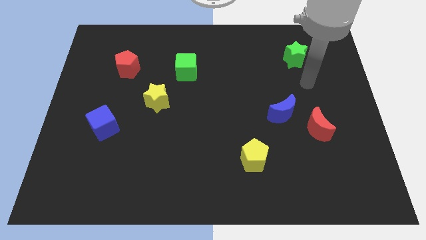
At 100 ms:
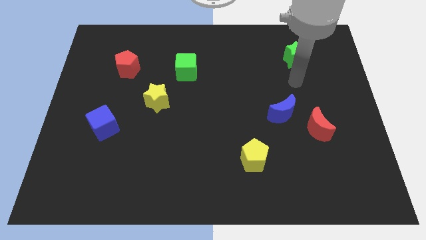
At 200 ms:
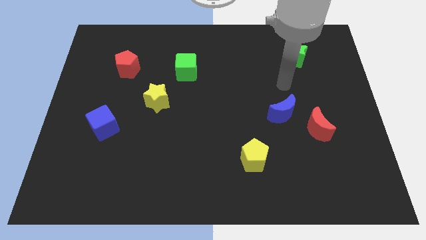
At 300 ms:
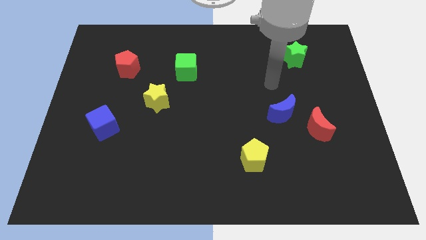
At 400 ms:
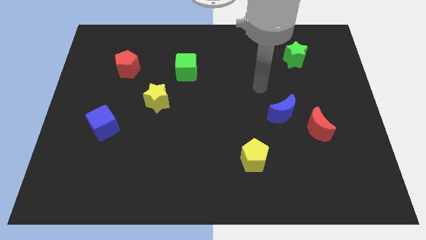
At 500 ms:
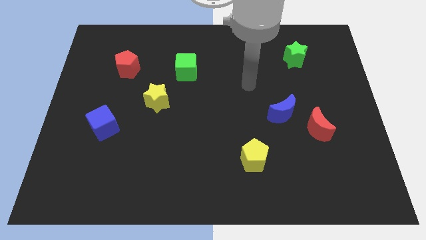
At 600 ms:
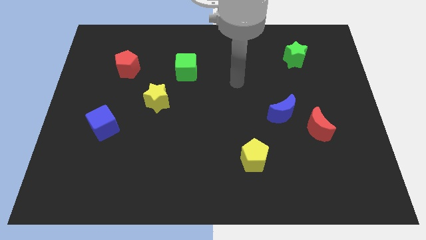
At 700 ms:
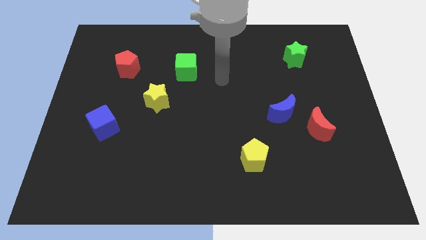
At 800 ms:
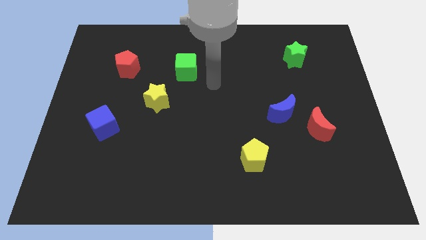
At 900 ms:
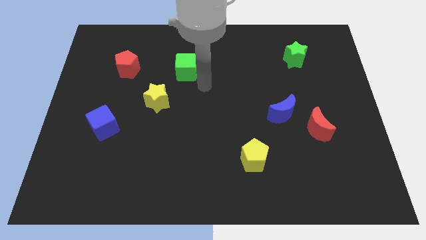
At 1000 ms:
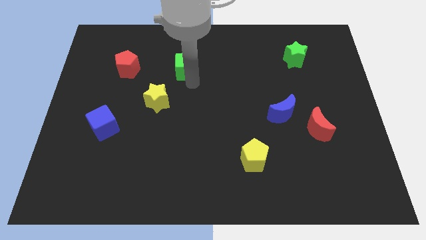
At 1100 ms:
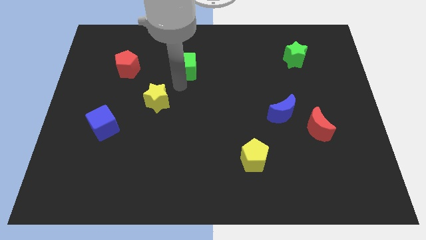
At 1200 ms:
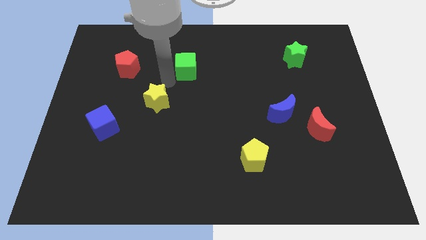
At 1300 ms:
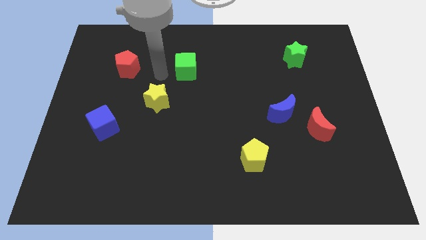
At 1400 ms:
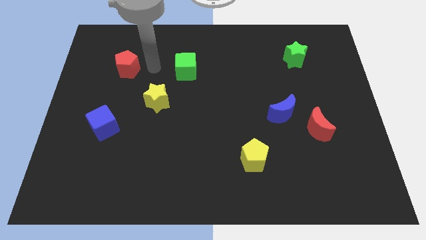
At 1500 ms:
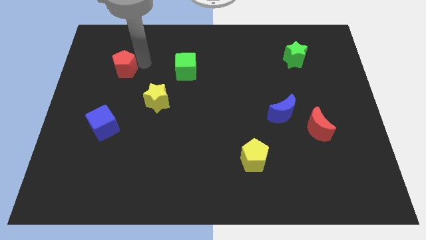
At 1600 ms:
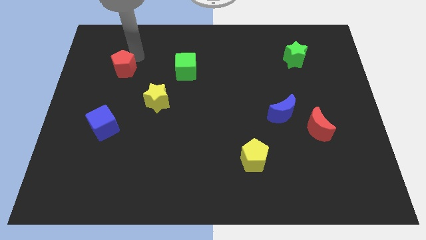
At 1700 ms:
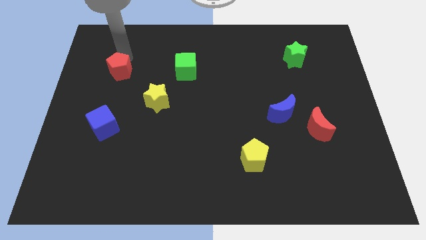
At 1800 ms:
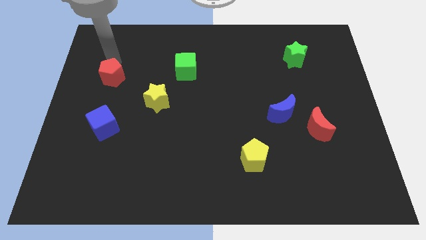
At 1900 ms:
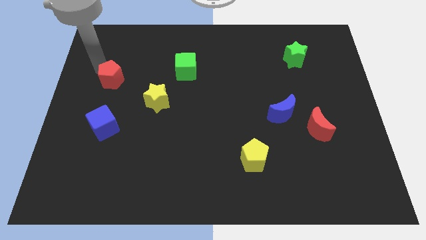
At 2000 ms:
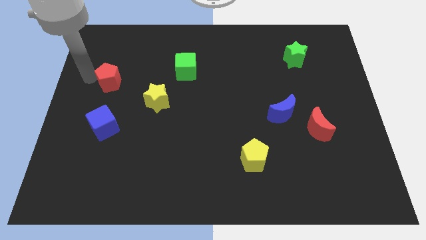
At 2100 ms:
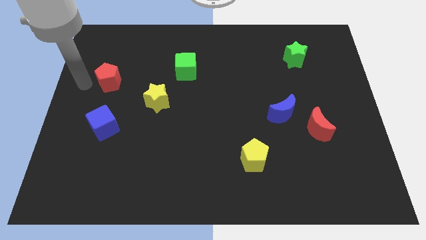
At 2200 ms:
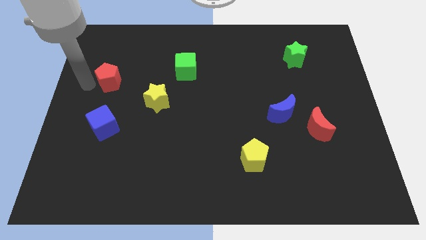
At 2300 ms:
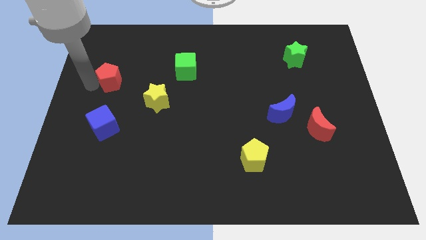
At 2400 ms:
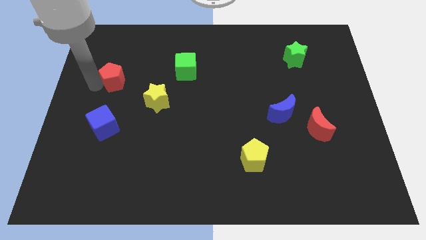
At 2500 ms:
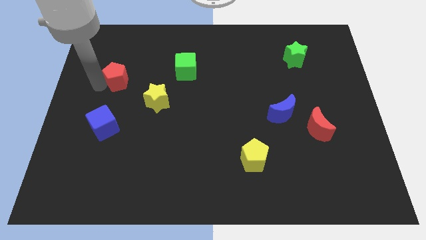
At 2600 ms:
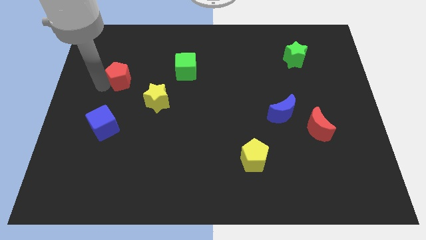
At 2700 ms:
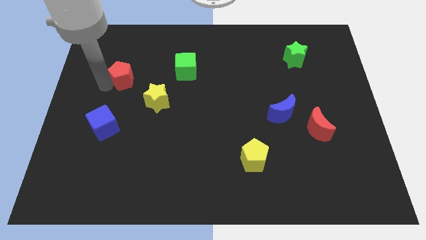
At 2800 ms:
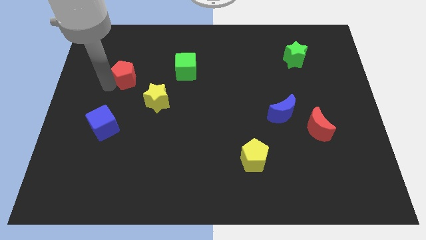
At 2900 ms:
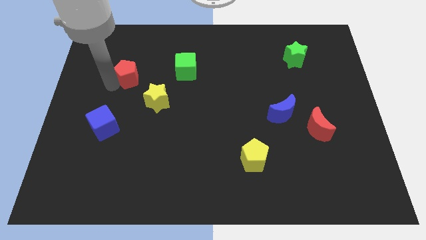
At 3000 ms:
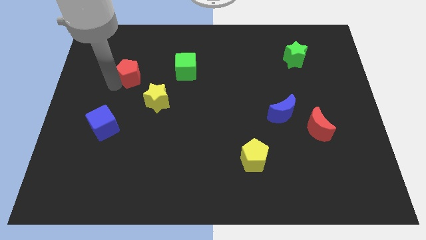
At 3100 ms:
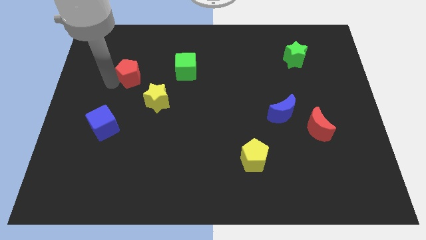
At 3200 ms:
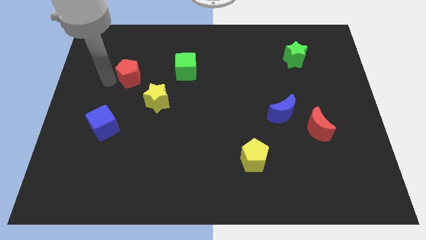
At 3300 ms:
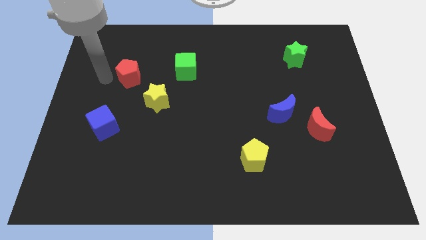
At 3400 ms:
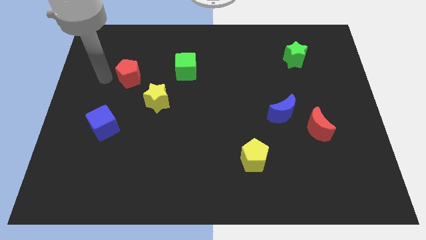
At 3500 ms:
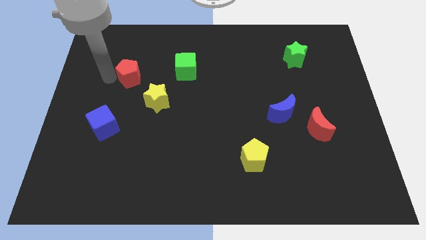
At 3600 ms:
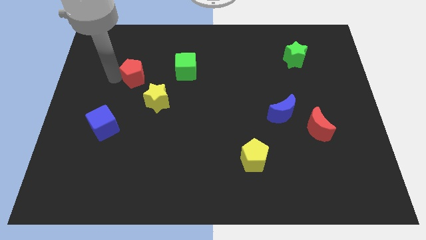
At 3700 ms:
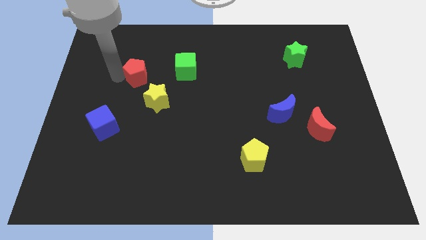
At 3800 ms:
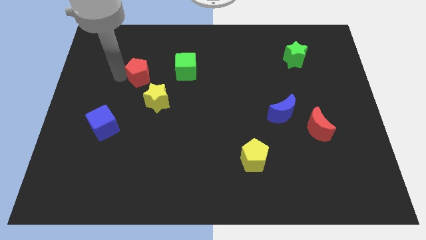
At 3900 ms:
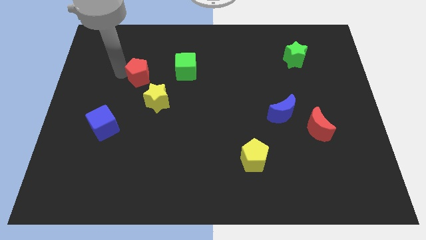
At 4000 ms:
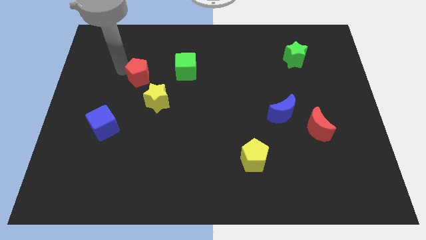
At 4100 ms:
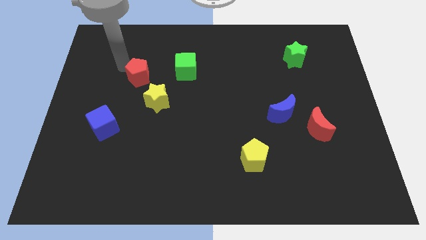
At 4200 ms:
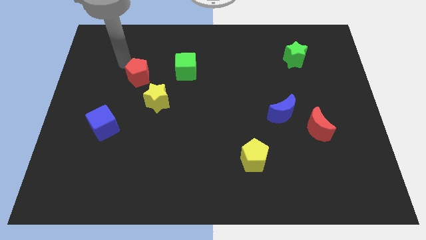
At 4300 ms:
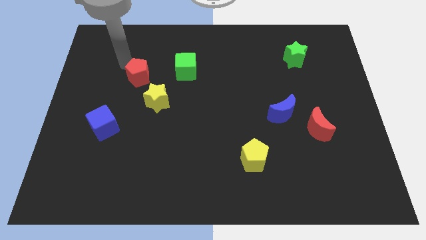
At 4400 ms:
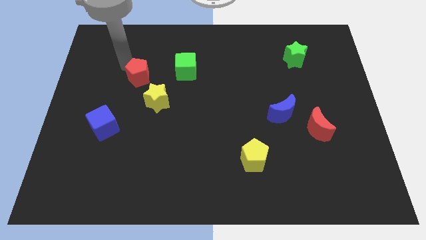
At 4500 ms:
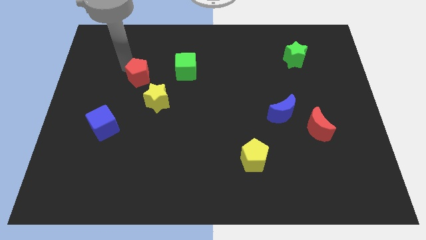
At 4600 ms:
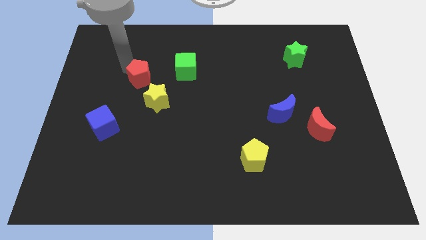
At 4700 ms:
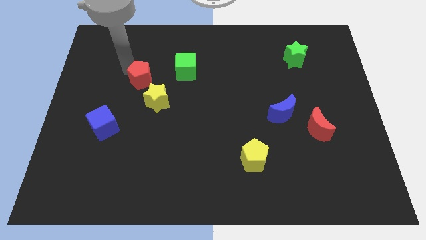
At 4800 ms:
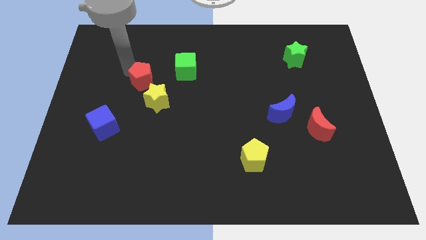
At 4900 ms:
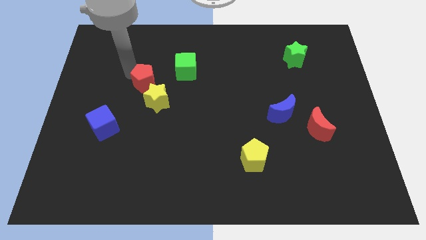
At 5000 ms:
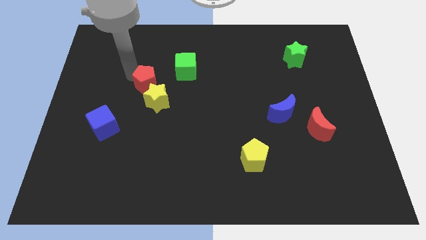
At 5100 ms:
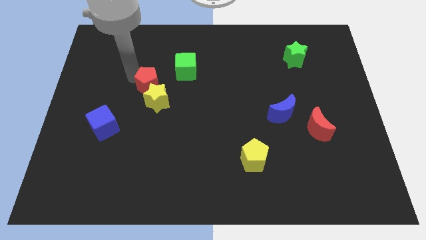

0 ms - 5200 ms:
put the red pentagon towards the yellow star

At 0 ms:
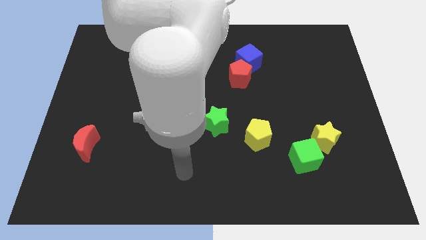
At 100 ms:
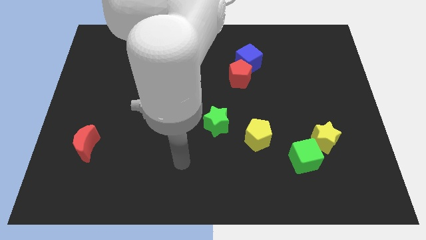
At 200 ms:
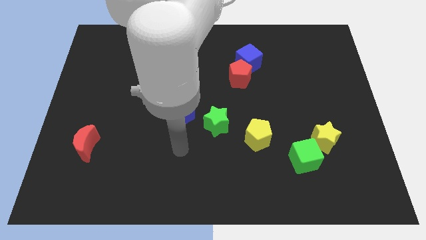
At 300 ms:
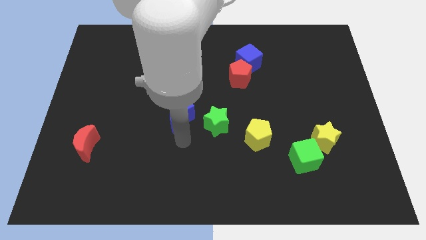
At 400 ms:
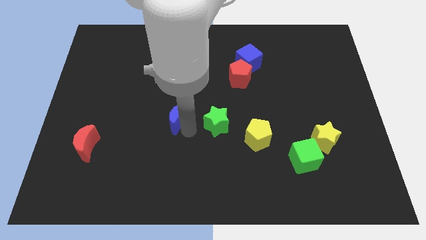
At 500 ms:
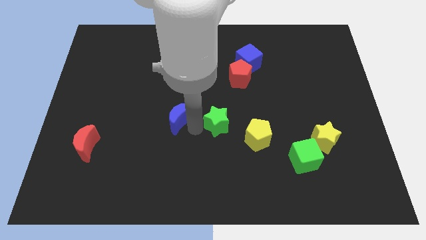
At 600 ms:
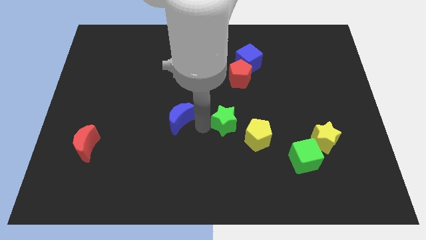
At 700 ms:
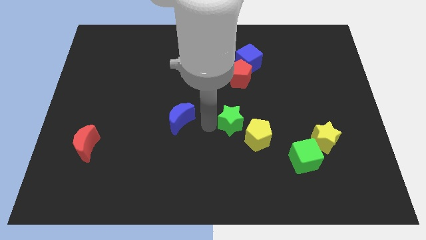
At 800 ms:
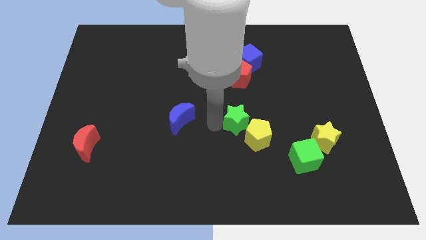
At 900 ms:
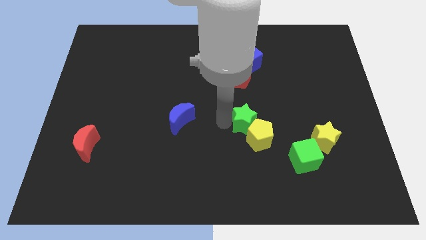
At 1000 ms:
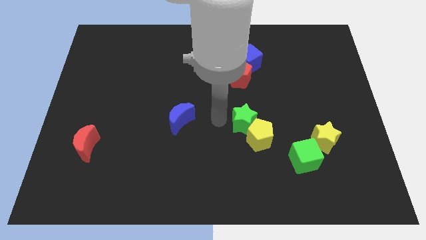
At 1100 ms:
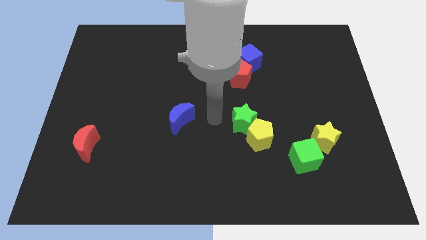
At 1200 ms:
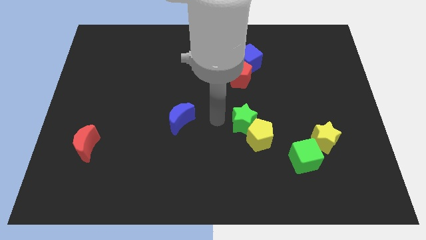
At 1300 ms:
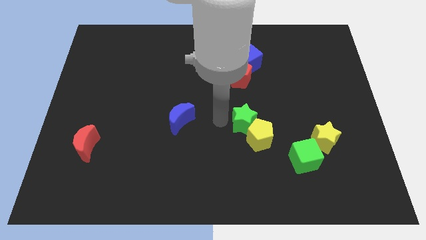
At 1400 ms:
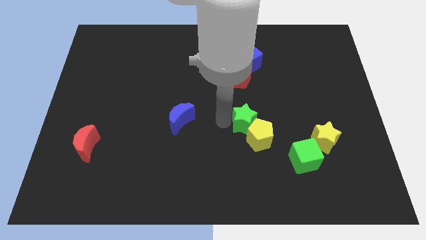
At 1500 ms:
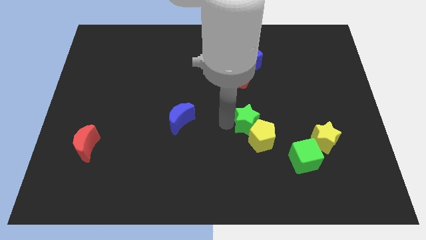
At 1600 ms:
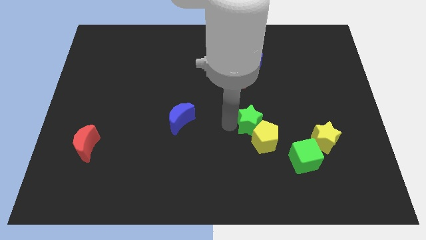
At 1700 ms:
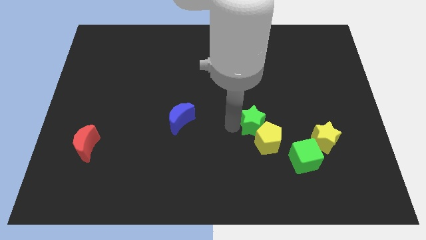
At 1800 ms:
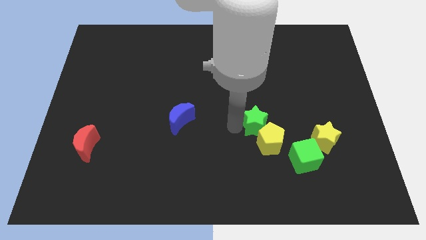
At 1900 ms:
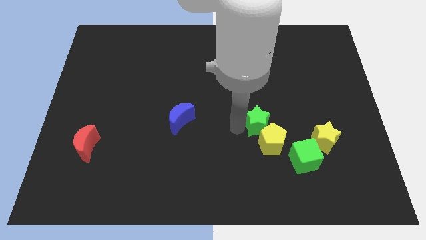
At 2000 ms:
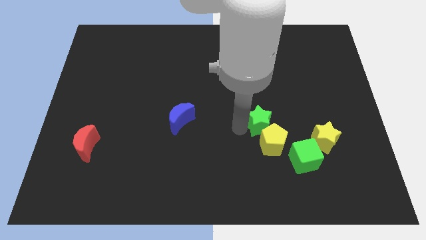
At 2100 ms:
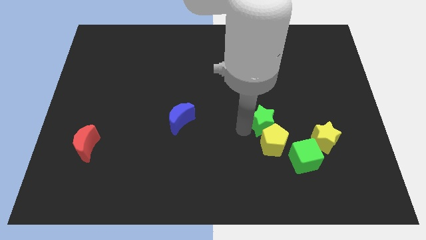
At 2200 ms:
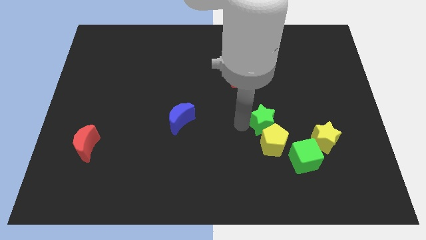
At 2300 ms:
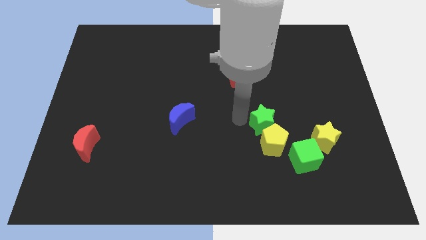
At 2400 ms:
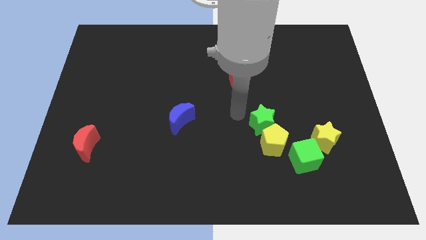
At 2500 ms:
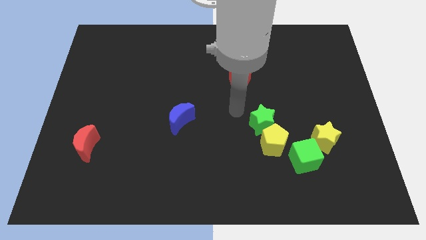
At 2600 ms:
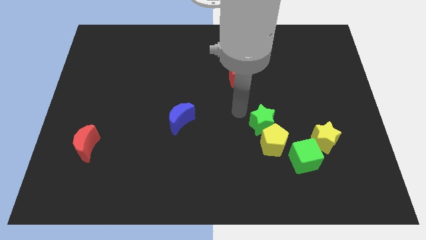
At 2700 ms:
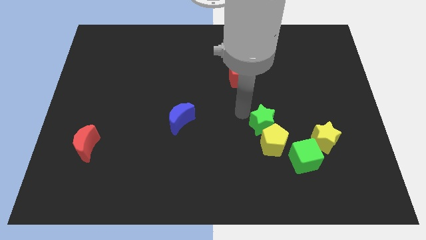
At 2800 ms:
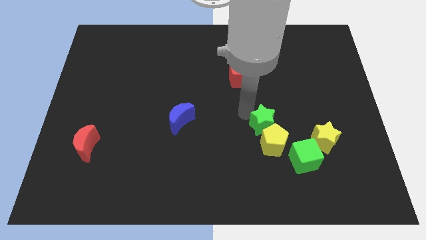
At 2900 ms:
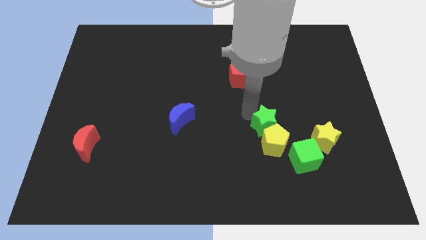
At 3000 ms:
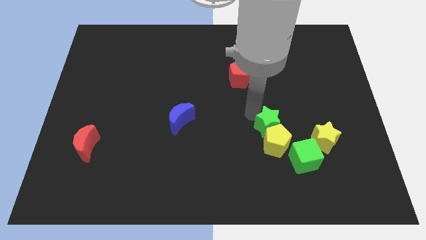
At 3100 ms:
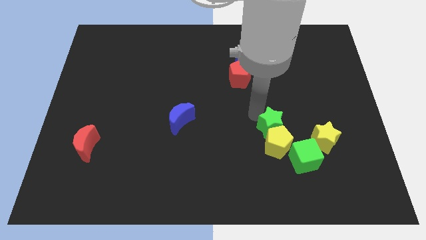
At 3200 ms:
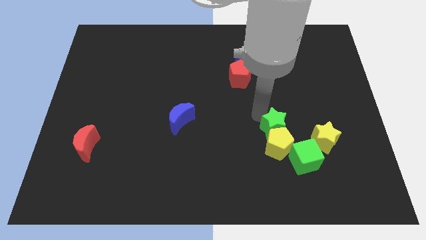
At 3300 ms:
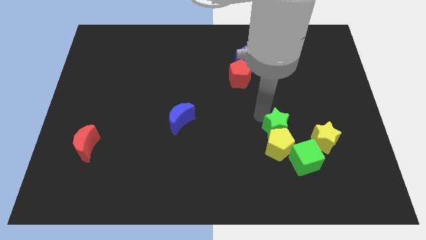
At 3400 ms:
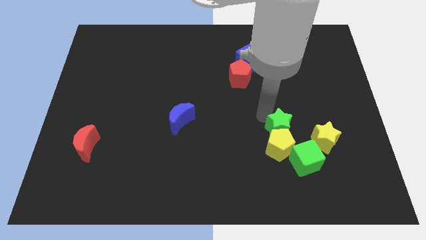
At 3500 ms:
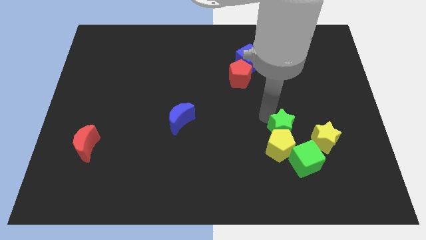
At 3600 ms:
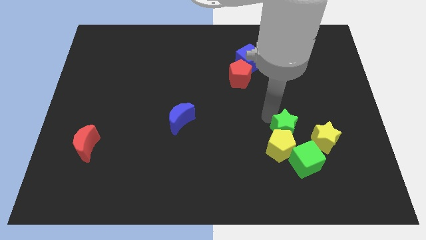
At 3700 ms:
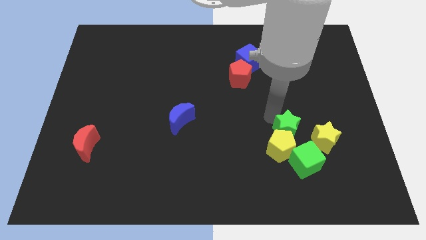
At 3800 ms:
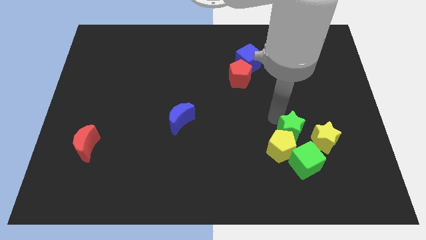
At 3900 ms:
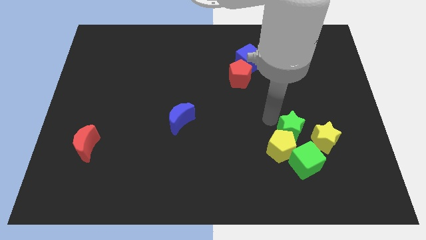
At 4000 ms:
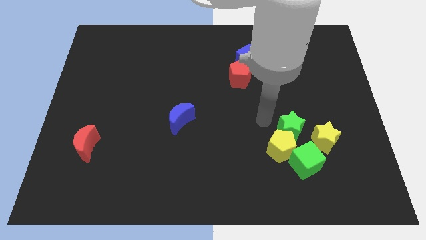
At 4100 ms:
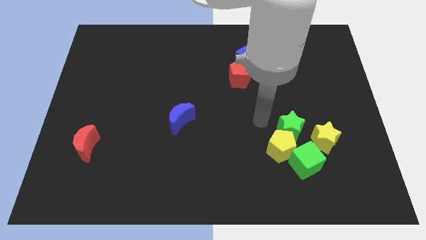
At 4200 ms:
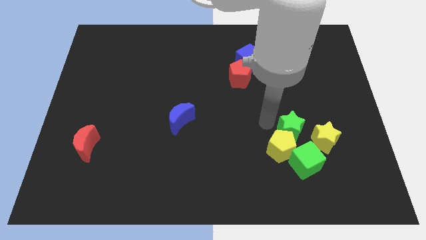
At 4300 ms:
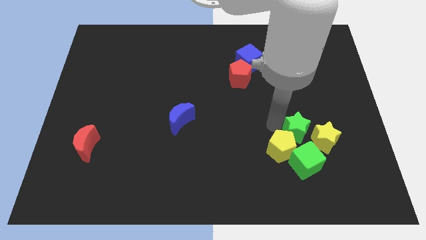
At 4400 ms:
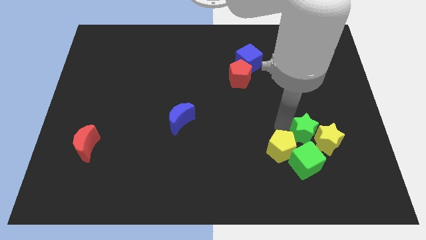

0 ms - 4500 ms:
put the green star next to the yellow star
